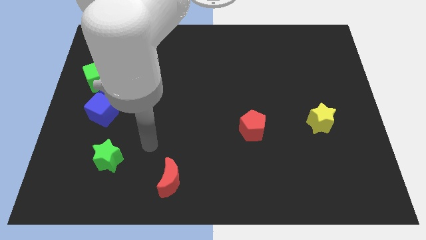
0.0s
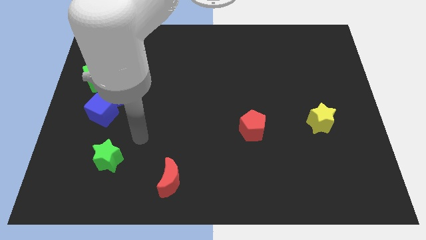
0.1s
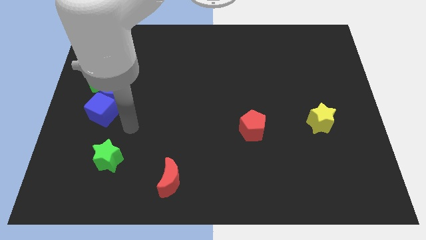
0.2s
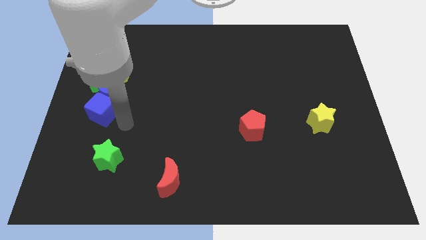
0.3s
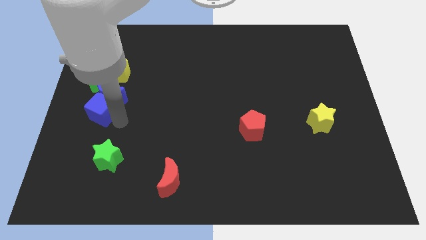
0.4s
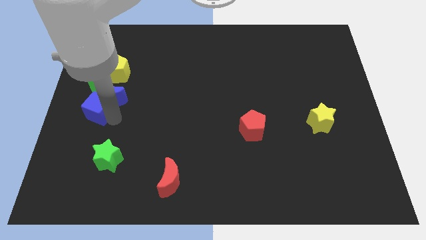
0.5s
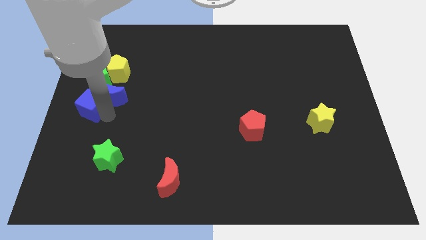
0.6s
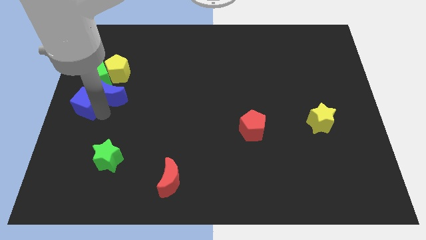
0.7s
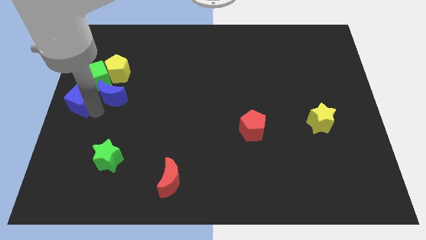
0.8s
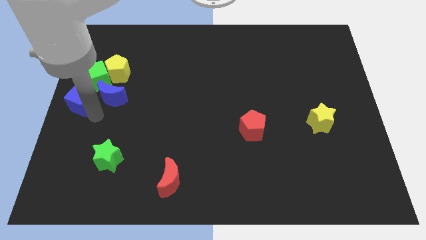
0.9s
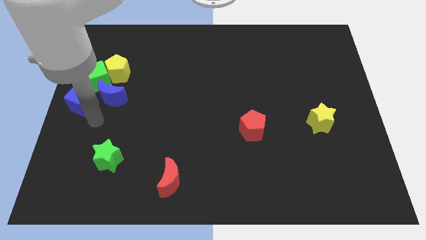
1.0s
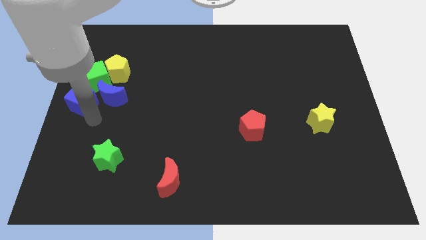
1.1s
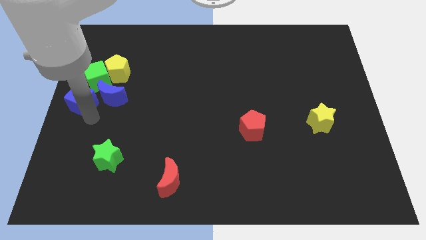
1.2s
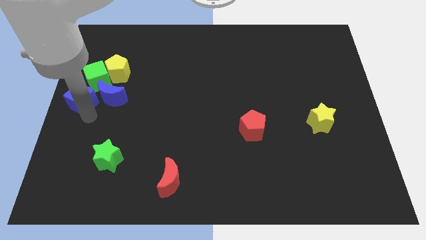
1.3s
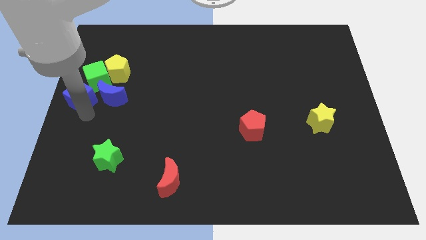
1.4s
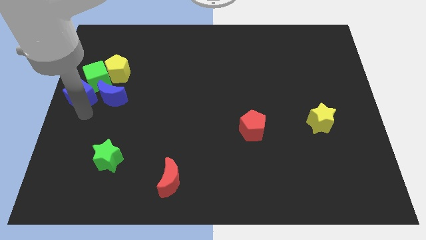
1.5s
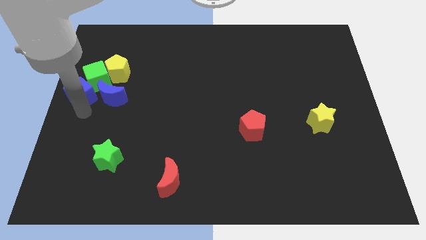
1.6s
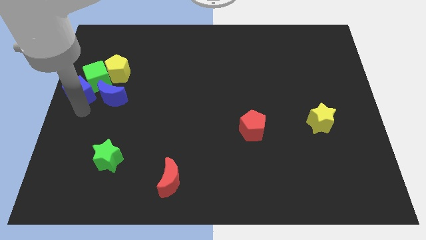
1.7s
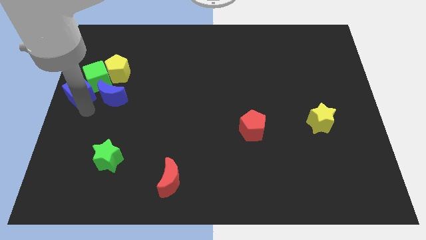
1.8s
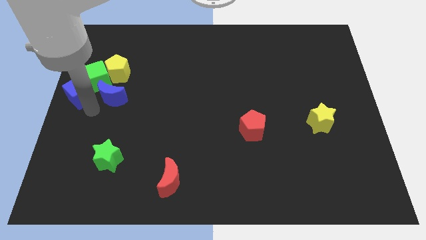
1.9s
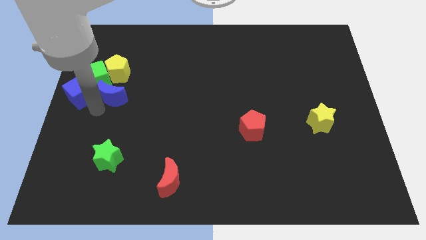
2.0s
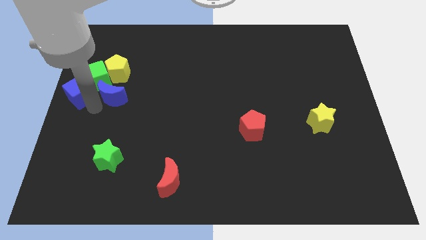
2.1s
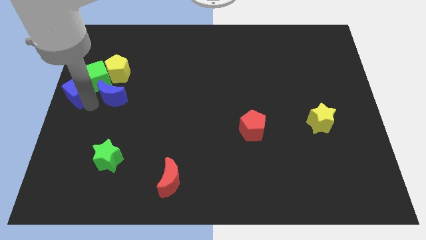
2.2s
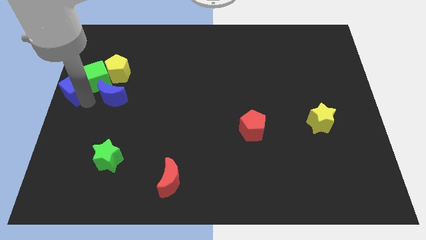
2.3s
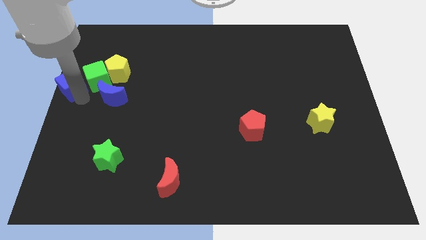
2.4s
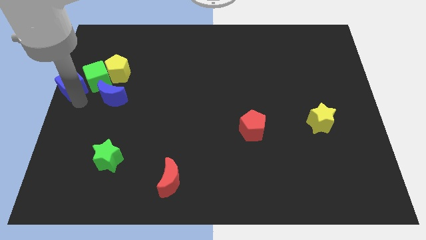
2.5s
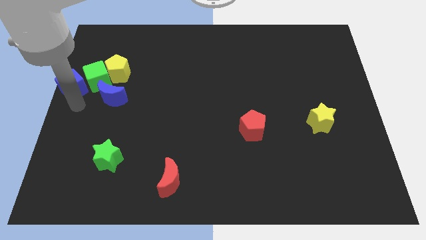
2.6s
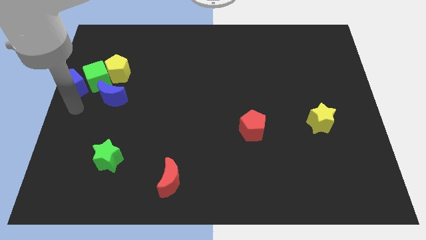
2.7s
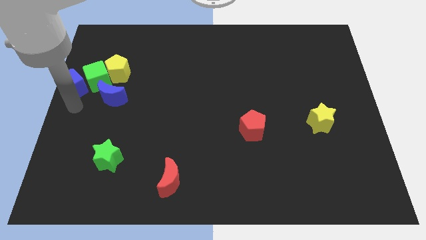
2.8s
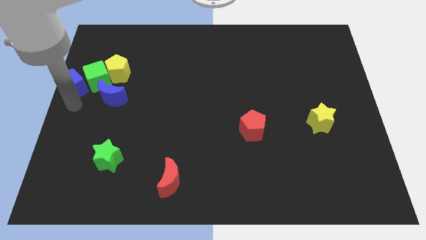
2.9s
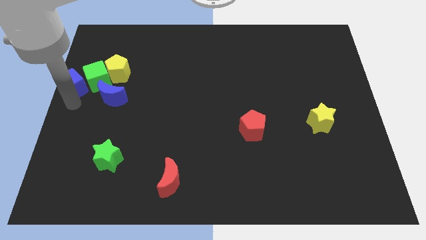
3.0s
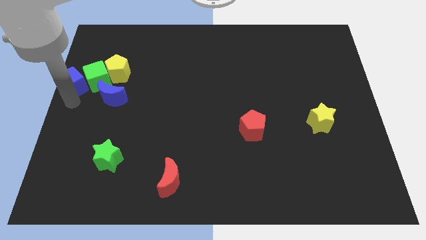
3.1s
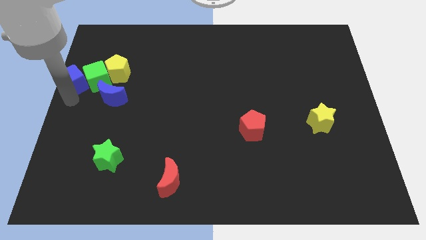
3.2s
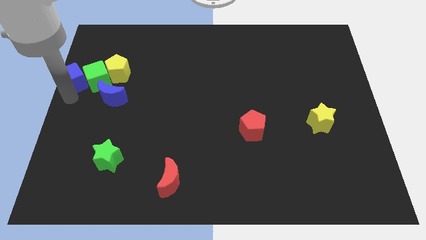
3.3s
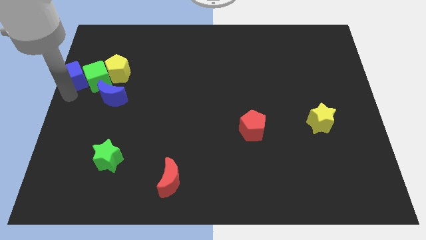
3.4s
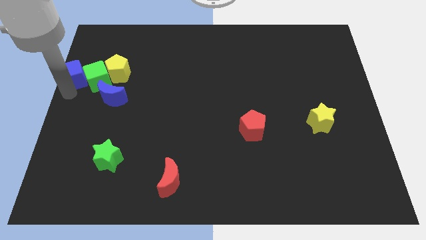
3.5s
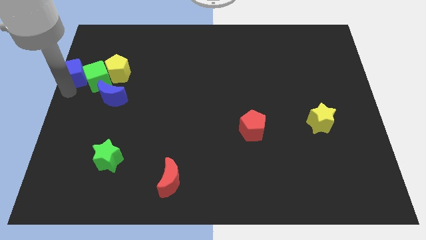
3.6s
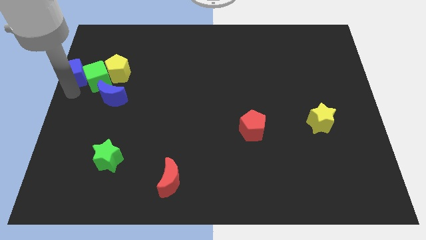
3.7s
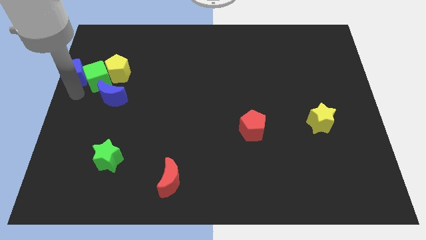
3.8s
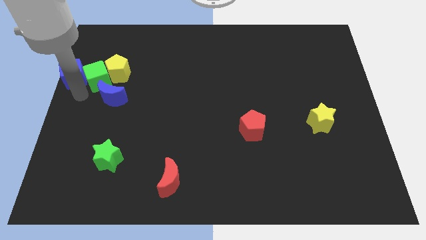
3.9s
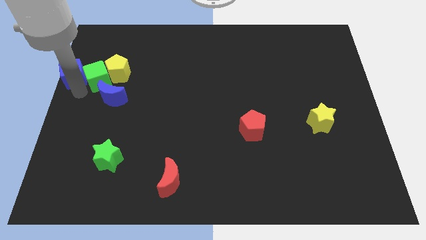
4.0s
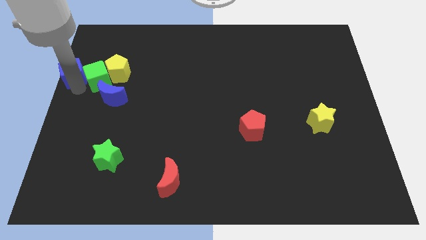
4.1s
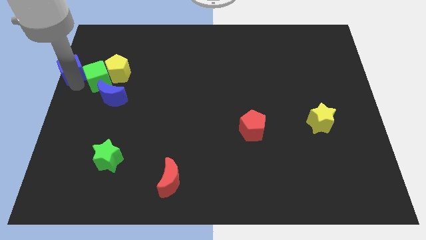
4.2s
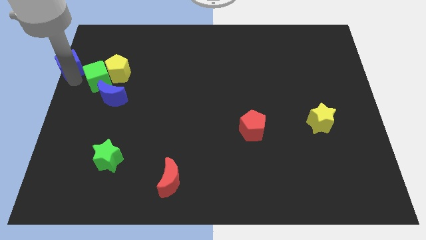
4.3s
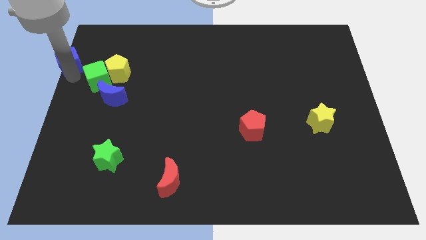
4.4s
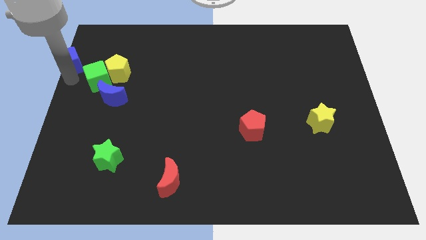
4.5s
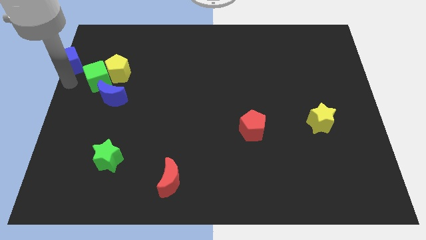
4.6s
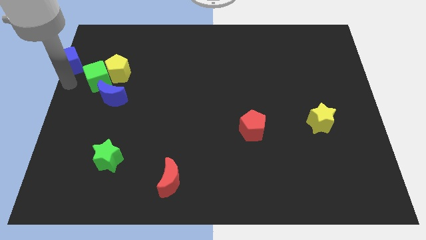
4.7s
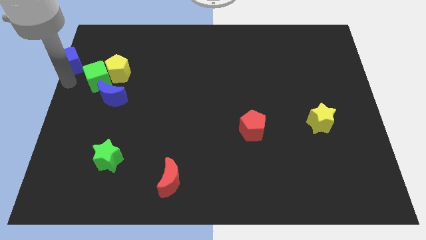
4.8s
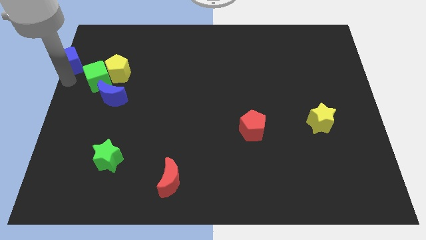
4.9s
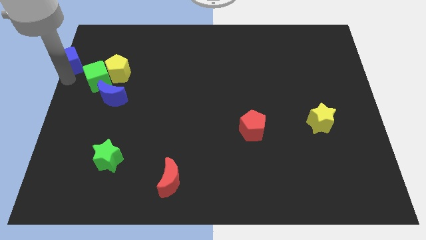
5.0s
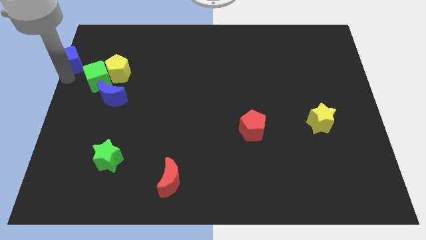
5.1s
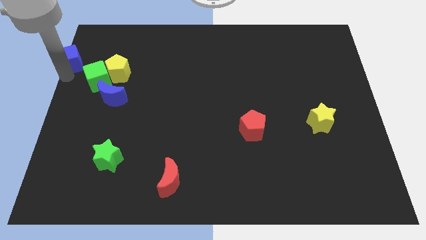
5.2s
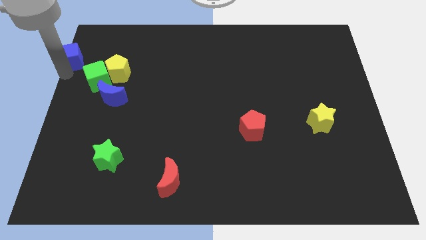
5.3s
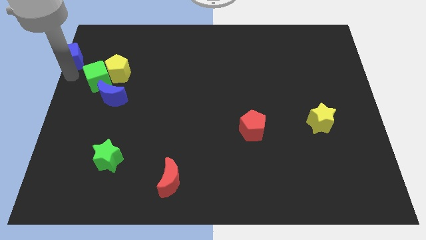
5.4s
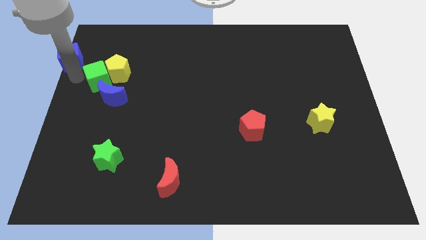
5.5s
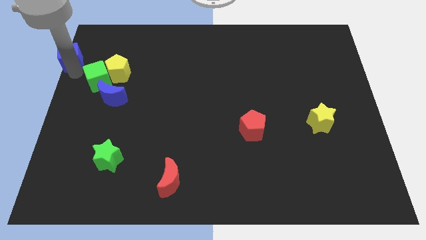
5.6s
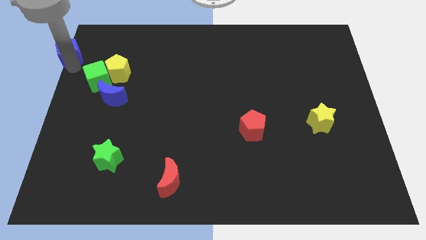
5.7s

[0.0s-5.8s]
push the blue cube to the top left of the board

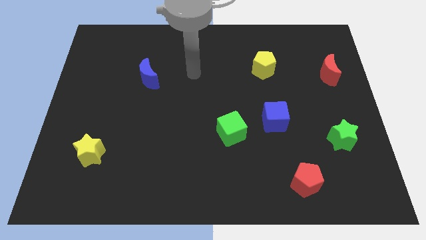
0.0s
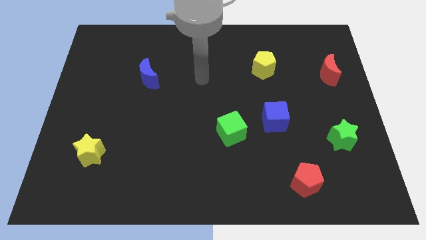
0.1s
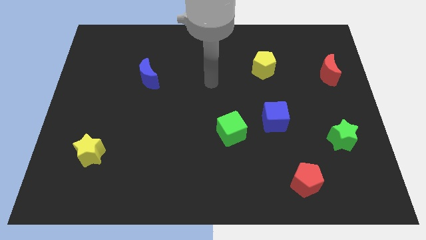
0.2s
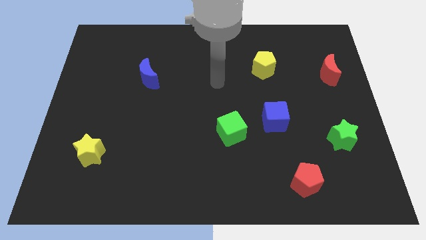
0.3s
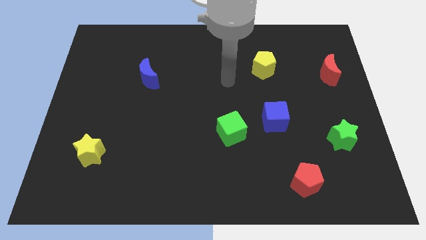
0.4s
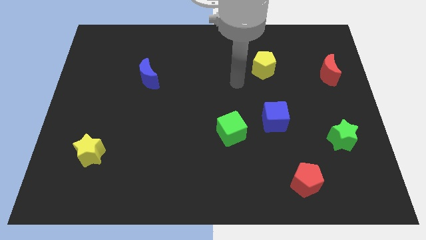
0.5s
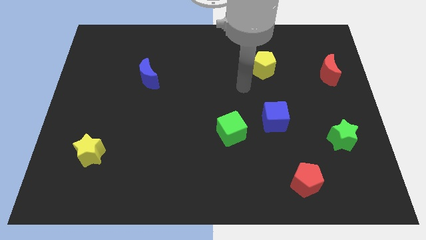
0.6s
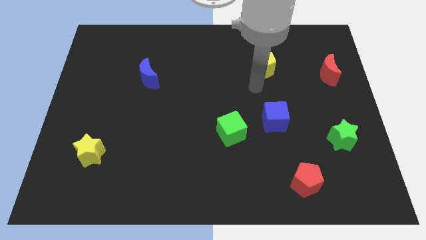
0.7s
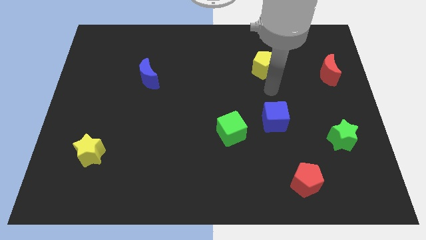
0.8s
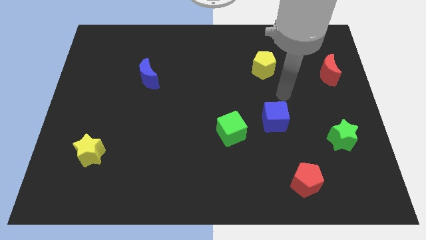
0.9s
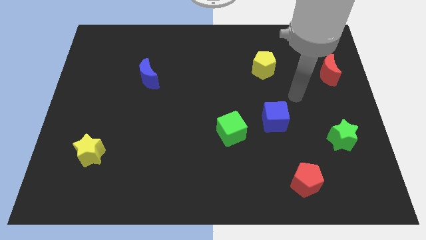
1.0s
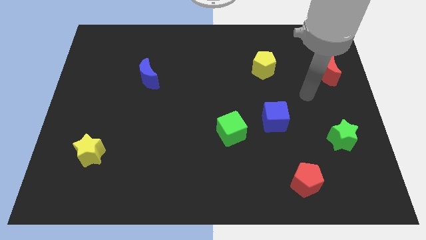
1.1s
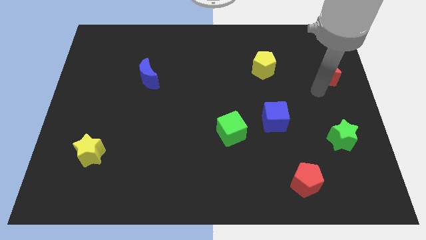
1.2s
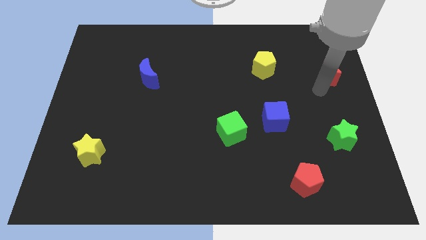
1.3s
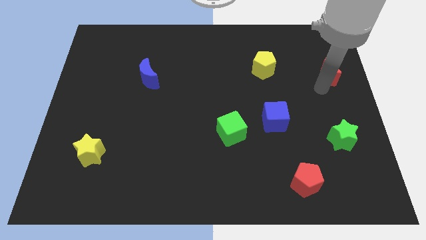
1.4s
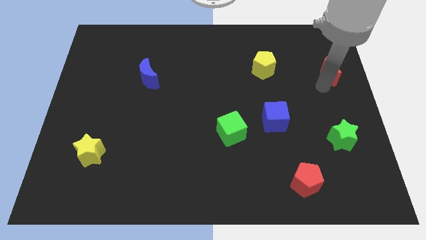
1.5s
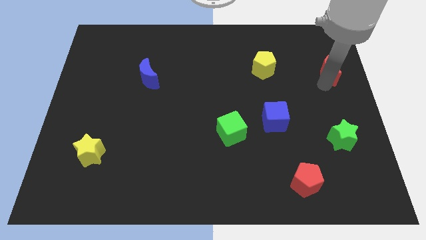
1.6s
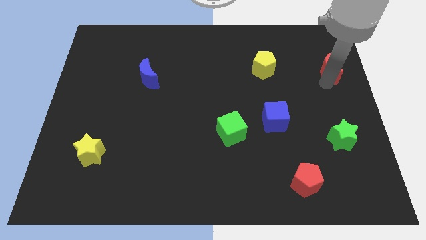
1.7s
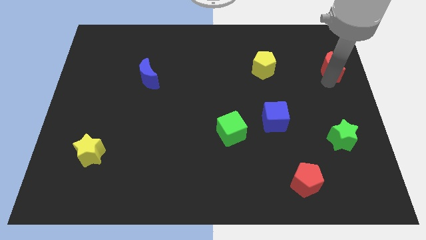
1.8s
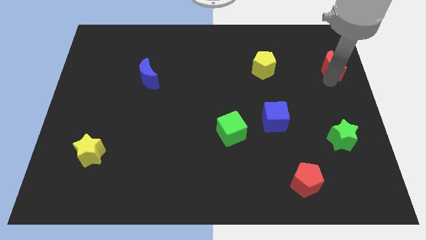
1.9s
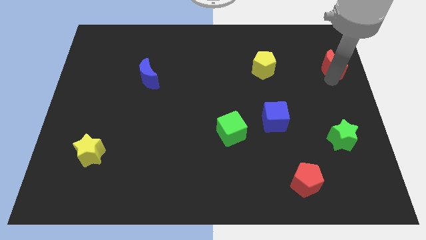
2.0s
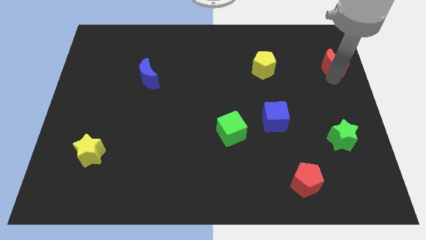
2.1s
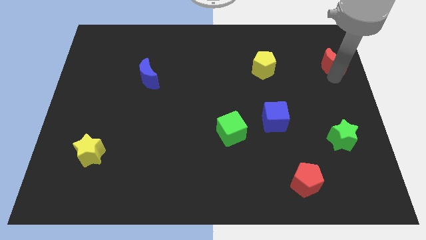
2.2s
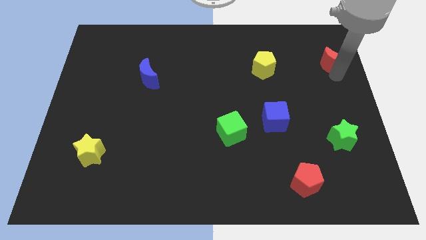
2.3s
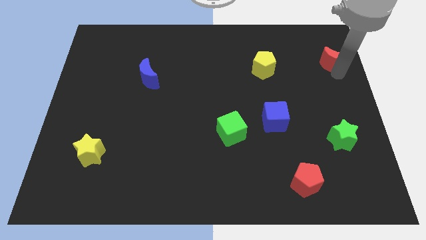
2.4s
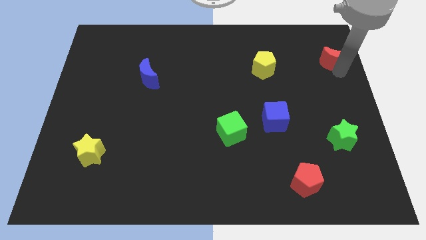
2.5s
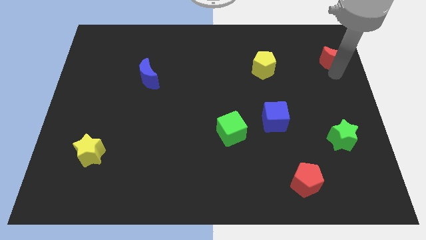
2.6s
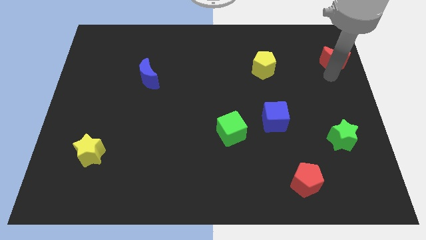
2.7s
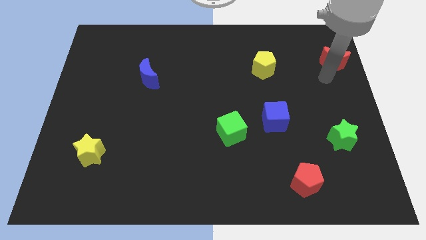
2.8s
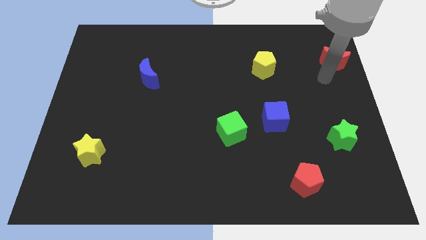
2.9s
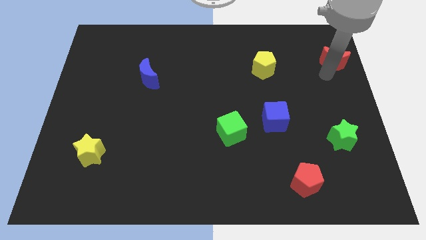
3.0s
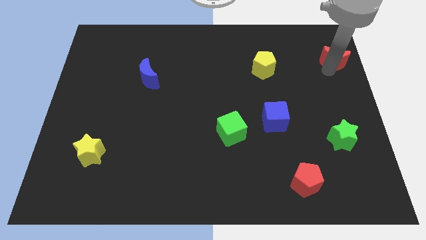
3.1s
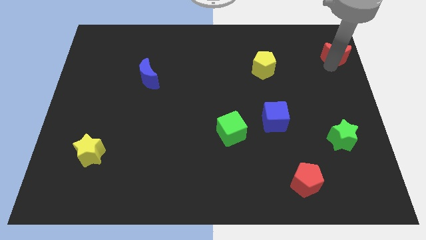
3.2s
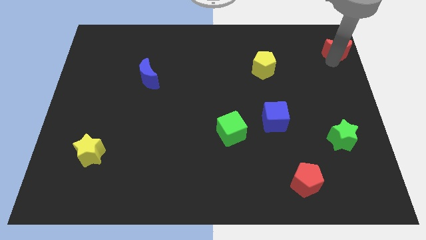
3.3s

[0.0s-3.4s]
push the red moon to the upper right corner
